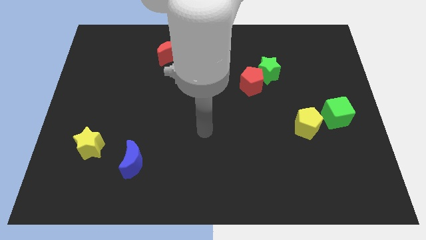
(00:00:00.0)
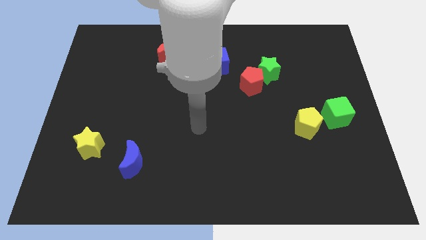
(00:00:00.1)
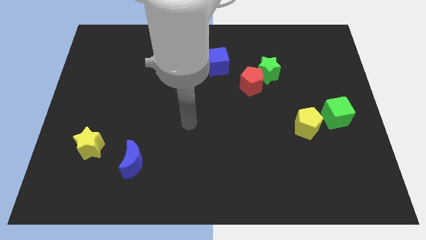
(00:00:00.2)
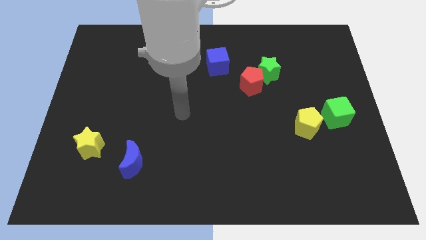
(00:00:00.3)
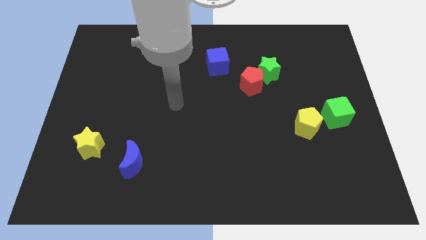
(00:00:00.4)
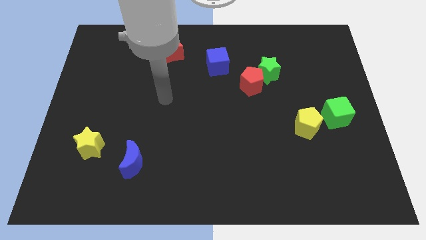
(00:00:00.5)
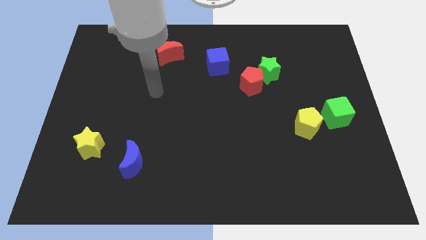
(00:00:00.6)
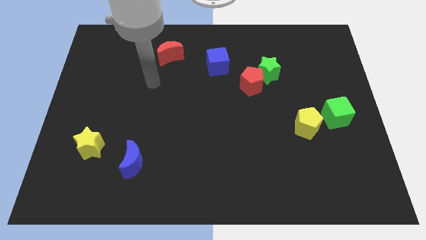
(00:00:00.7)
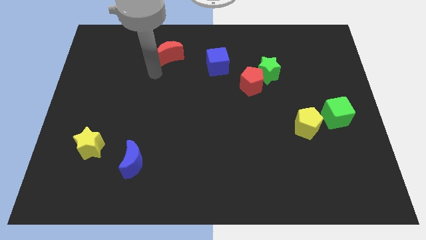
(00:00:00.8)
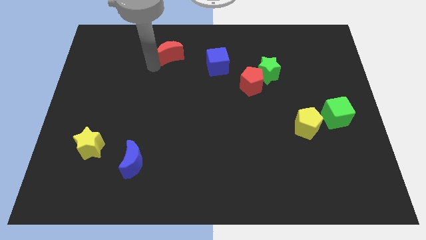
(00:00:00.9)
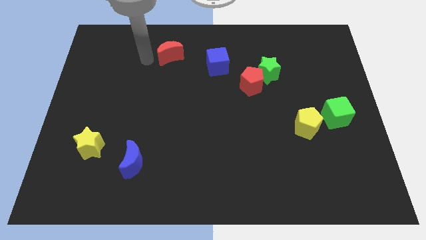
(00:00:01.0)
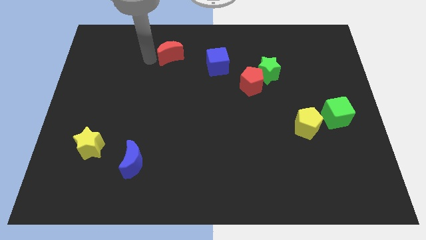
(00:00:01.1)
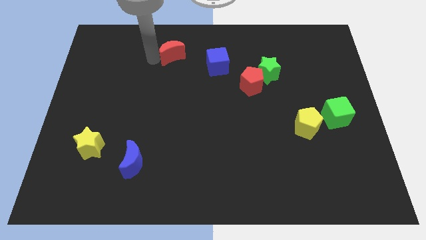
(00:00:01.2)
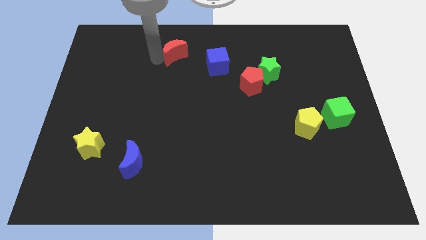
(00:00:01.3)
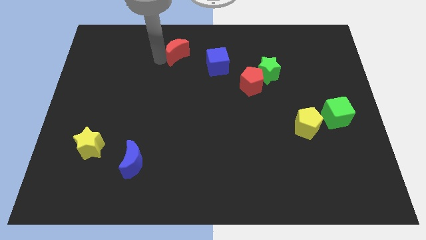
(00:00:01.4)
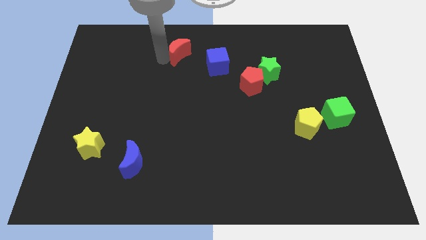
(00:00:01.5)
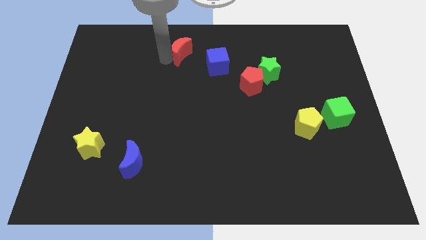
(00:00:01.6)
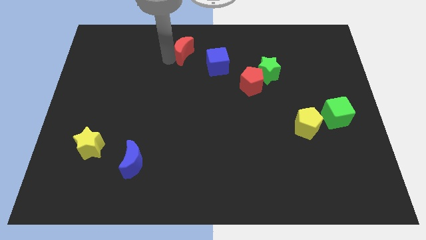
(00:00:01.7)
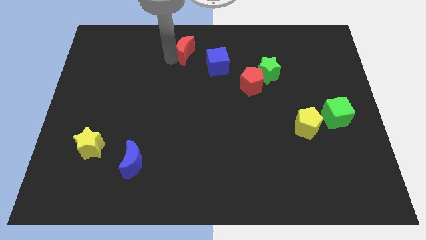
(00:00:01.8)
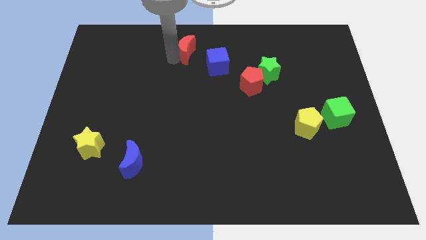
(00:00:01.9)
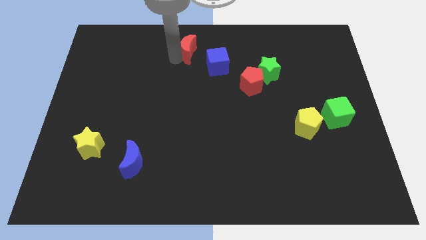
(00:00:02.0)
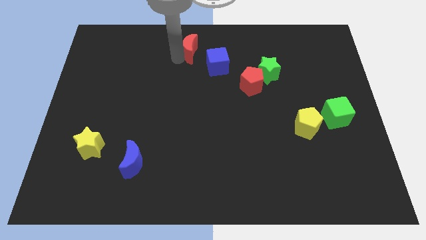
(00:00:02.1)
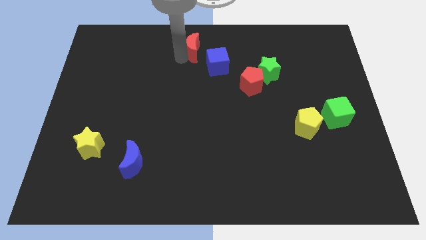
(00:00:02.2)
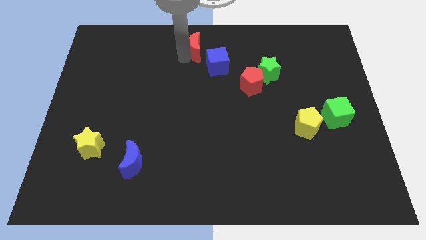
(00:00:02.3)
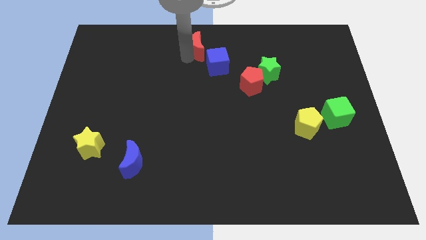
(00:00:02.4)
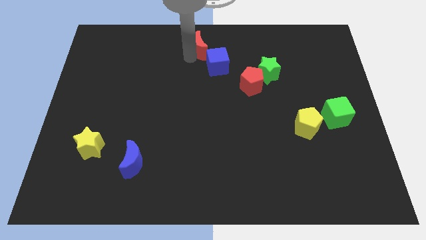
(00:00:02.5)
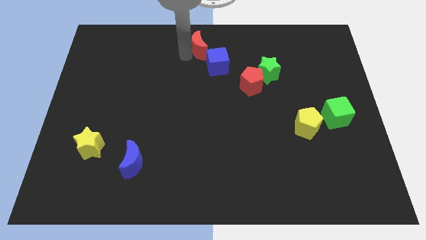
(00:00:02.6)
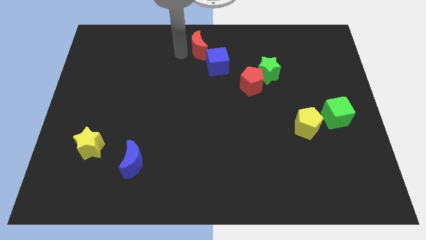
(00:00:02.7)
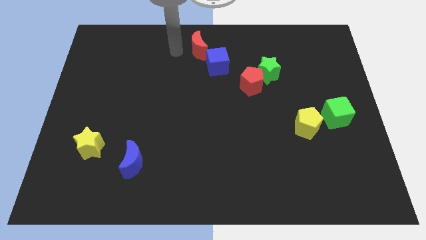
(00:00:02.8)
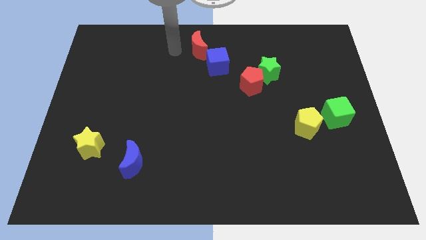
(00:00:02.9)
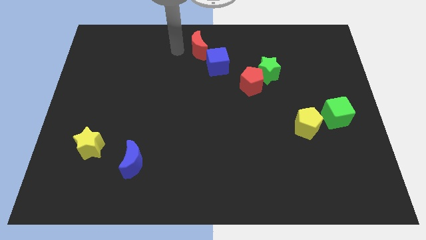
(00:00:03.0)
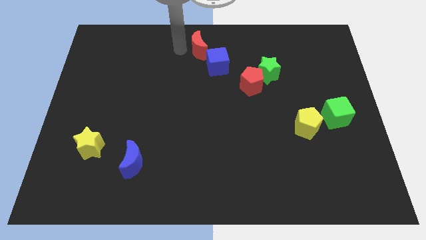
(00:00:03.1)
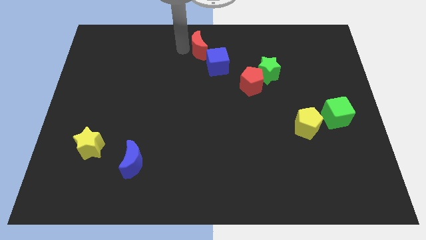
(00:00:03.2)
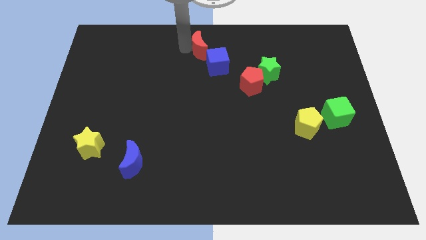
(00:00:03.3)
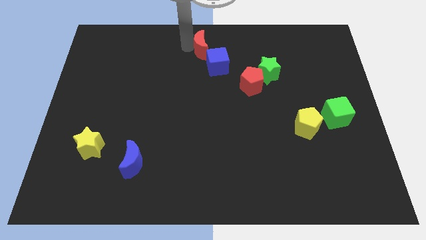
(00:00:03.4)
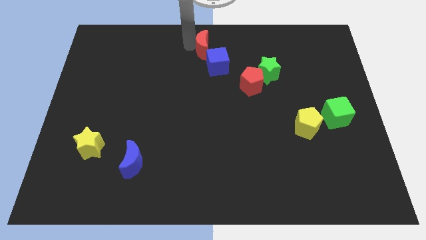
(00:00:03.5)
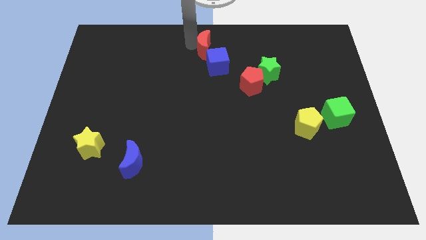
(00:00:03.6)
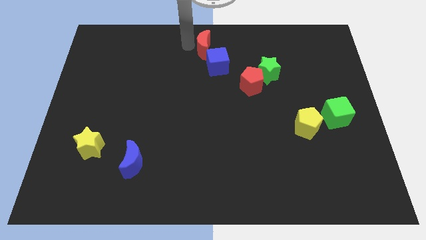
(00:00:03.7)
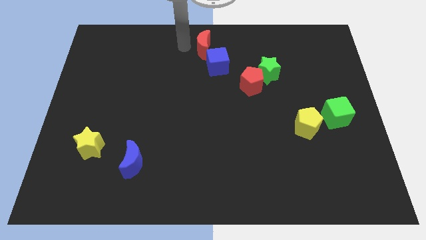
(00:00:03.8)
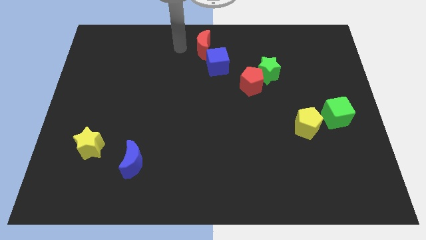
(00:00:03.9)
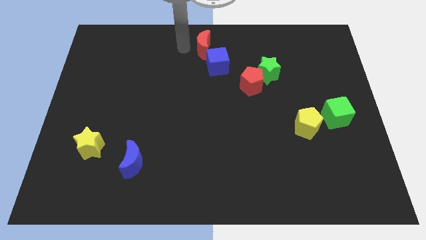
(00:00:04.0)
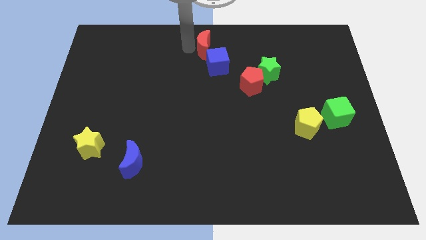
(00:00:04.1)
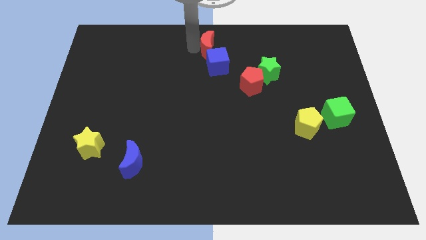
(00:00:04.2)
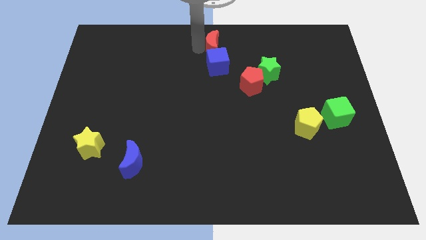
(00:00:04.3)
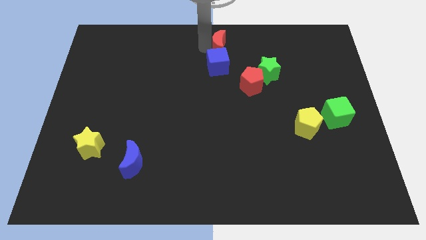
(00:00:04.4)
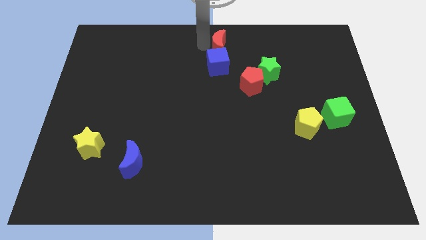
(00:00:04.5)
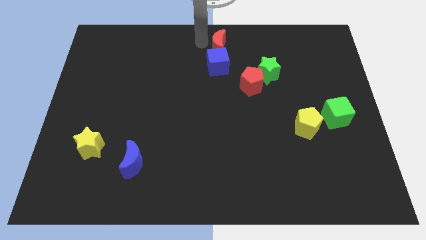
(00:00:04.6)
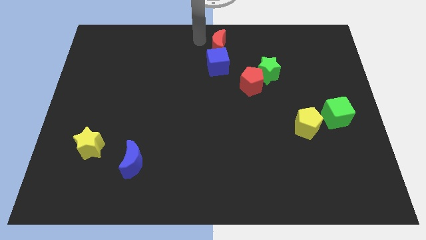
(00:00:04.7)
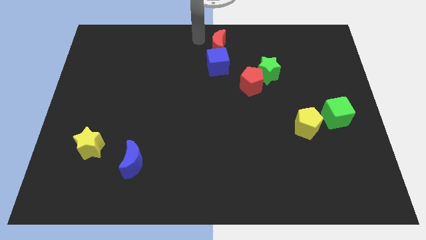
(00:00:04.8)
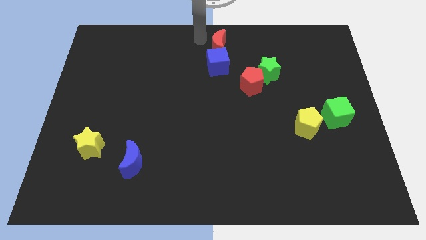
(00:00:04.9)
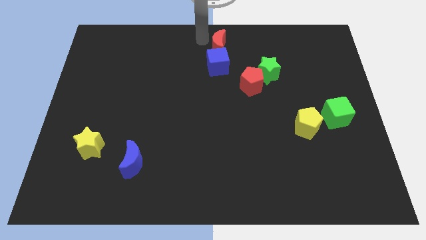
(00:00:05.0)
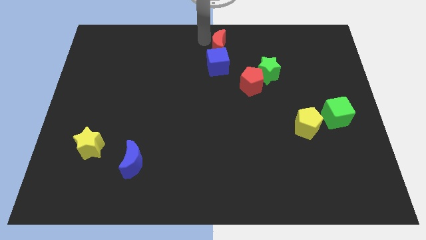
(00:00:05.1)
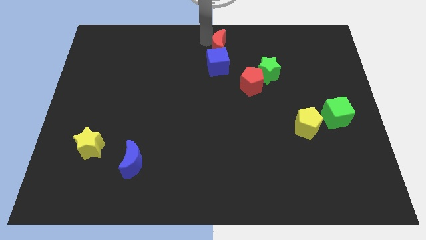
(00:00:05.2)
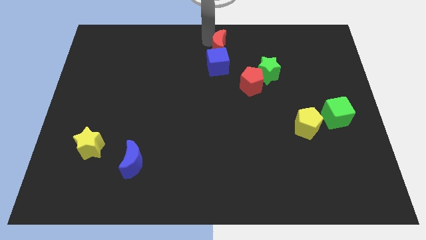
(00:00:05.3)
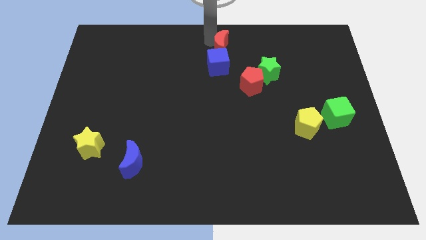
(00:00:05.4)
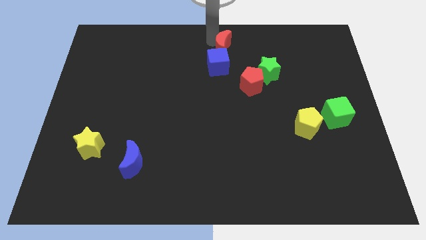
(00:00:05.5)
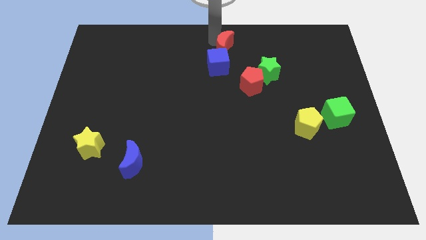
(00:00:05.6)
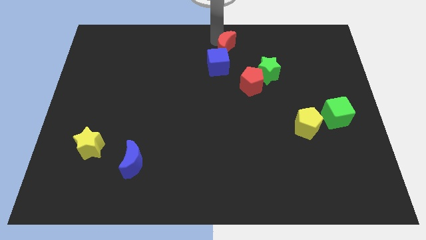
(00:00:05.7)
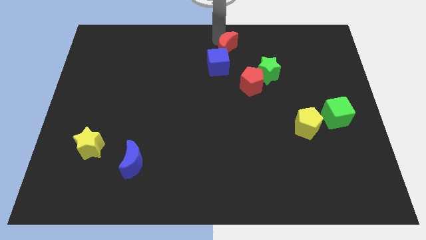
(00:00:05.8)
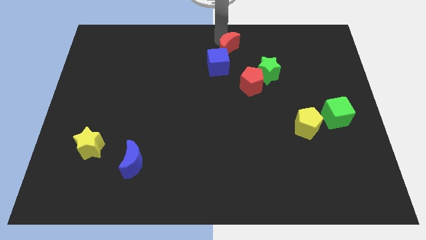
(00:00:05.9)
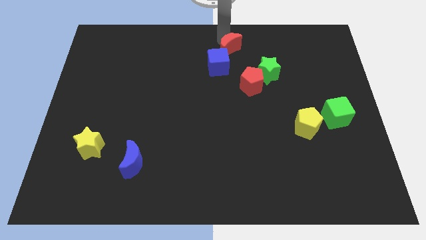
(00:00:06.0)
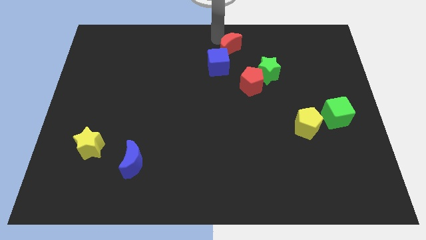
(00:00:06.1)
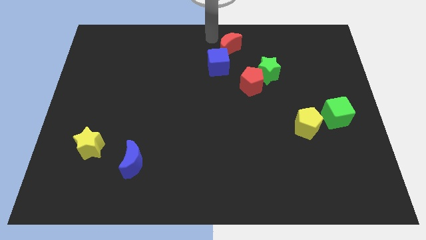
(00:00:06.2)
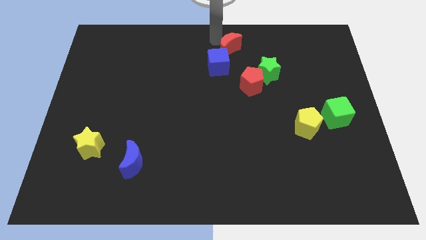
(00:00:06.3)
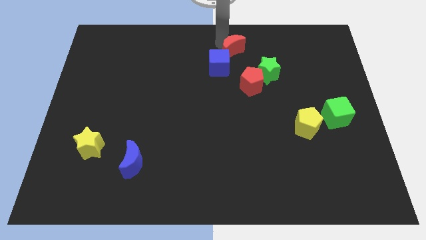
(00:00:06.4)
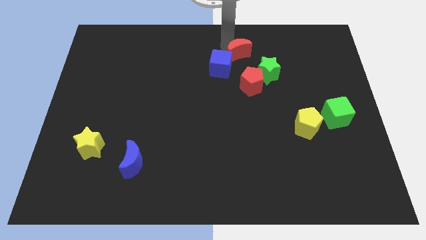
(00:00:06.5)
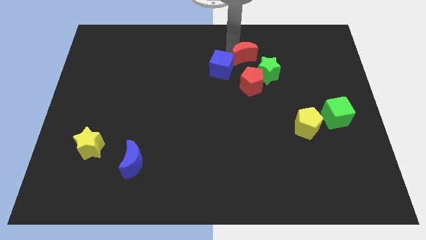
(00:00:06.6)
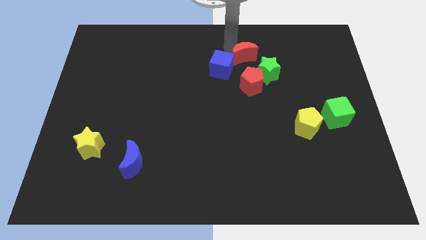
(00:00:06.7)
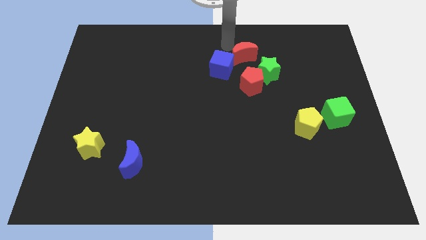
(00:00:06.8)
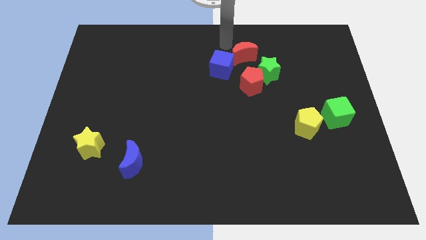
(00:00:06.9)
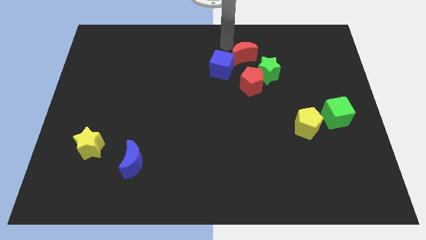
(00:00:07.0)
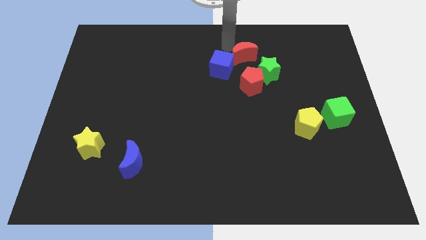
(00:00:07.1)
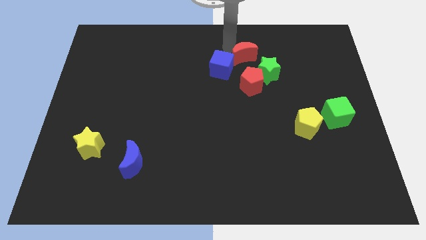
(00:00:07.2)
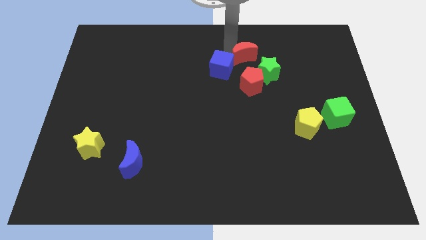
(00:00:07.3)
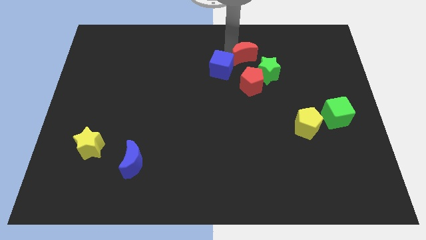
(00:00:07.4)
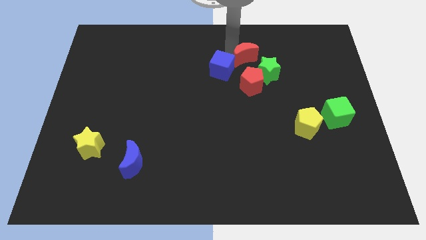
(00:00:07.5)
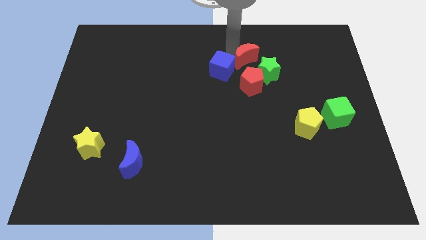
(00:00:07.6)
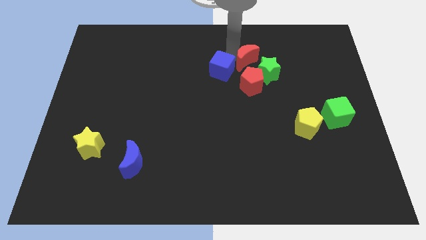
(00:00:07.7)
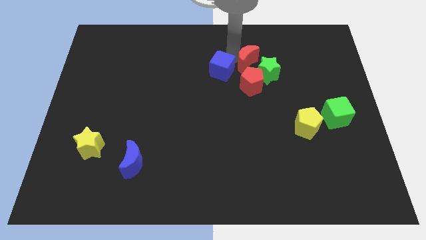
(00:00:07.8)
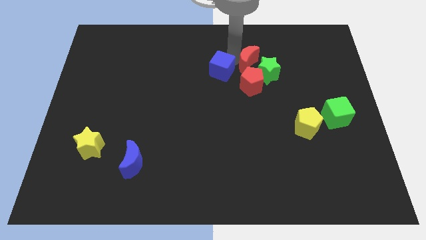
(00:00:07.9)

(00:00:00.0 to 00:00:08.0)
push the red moon close to the green star
